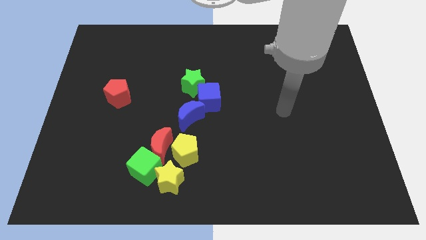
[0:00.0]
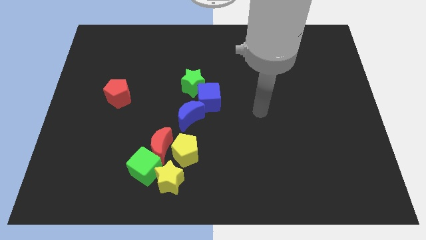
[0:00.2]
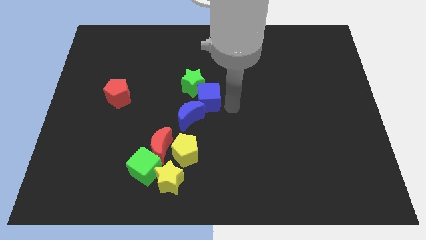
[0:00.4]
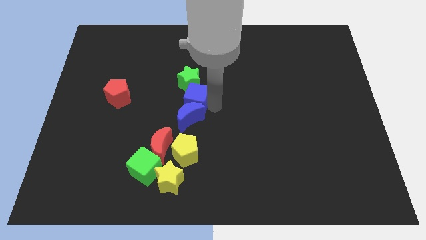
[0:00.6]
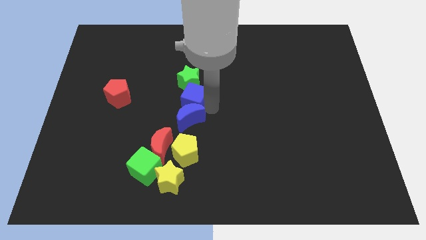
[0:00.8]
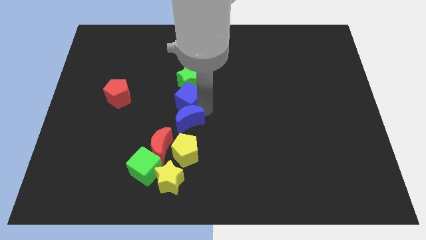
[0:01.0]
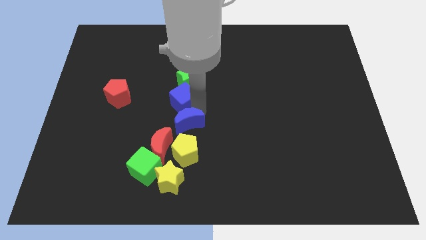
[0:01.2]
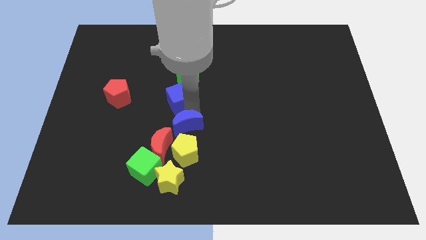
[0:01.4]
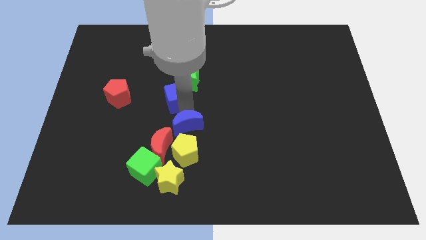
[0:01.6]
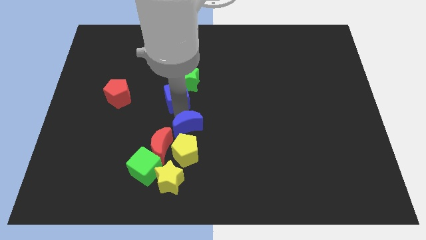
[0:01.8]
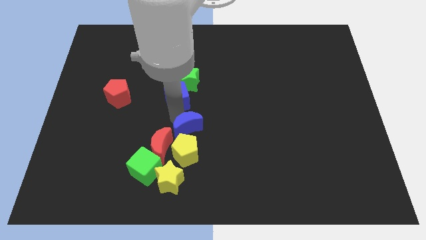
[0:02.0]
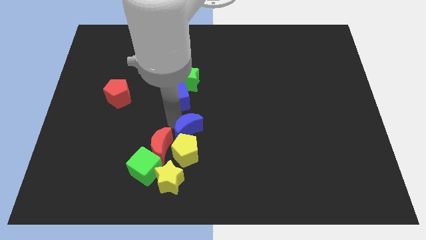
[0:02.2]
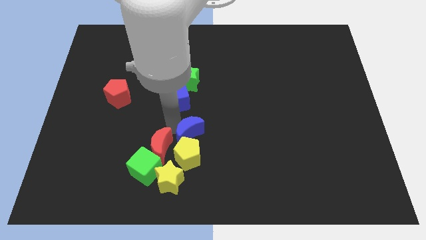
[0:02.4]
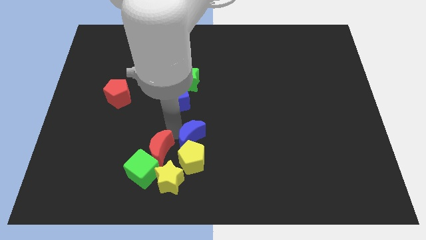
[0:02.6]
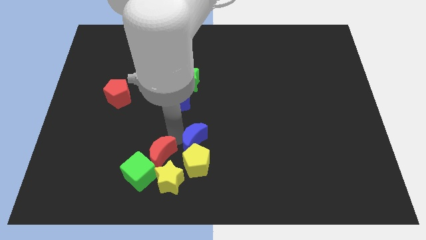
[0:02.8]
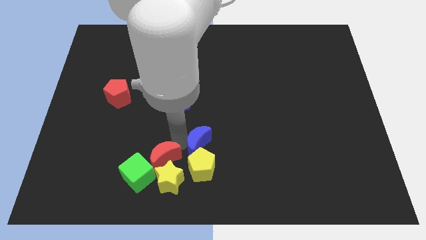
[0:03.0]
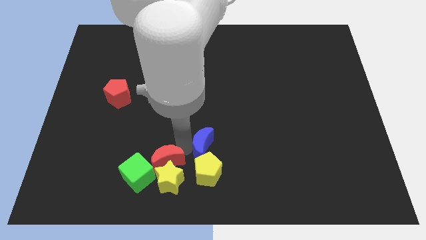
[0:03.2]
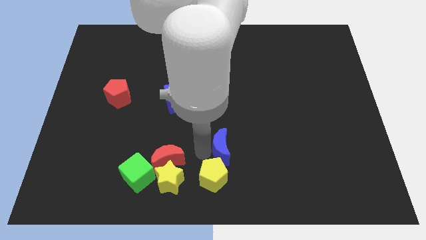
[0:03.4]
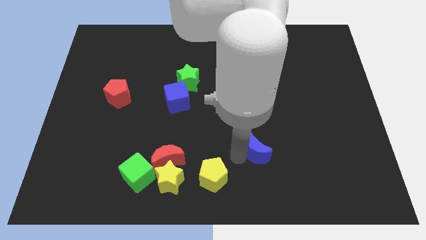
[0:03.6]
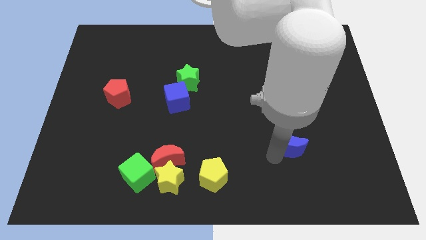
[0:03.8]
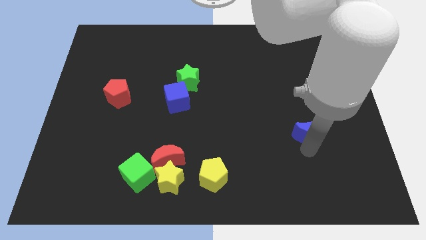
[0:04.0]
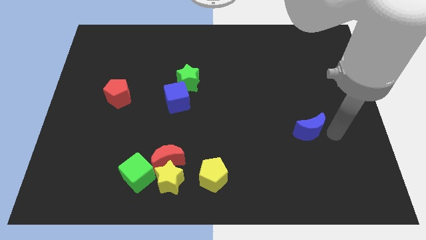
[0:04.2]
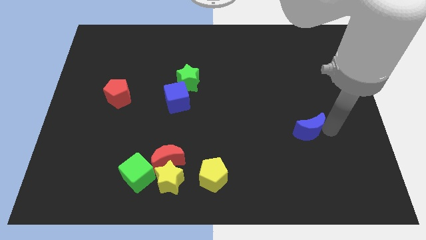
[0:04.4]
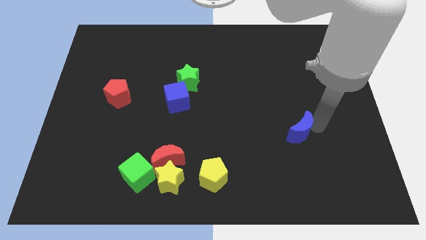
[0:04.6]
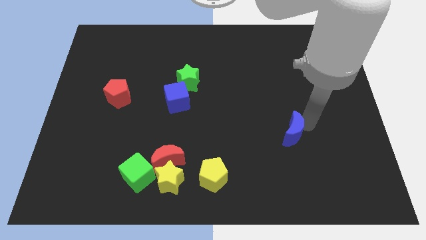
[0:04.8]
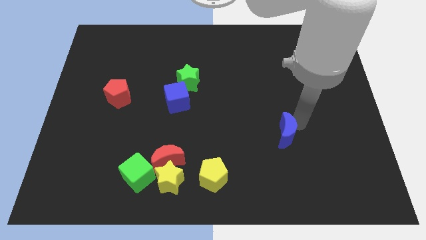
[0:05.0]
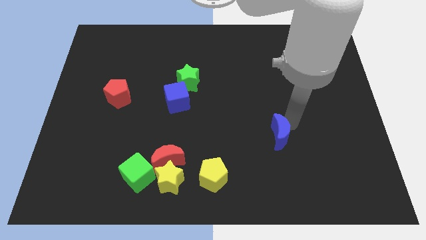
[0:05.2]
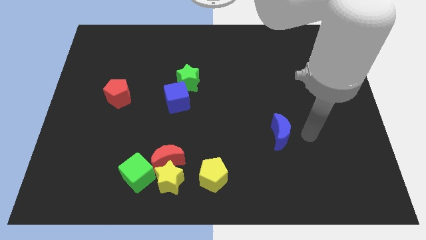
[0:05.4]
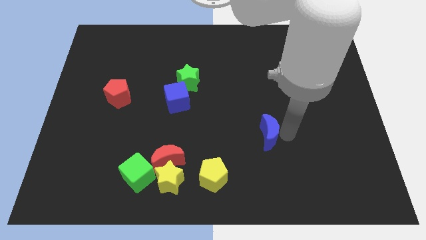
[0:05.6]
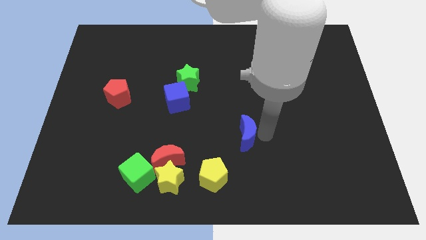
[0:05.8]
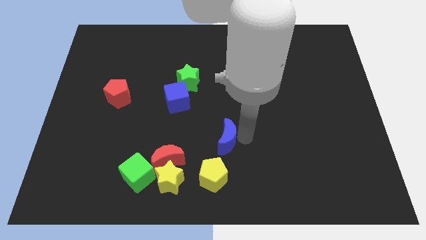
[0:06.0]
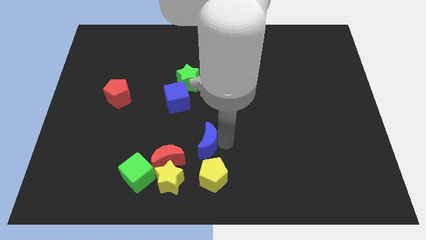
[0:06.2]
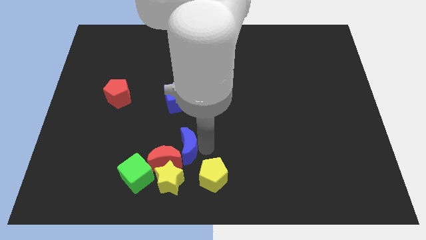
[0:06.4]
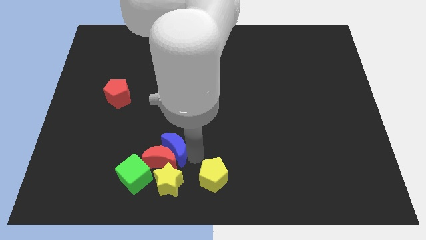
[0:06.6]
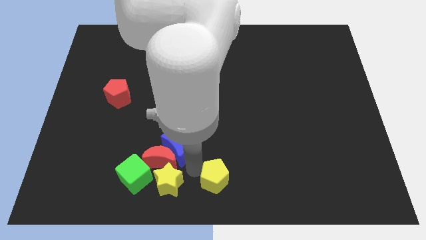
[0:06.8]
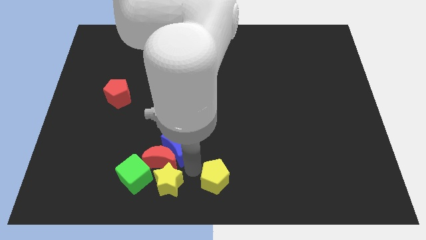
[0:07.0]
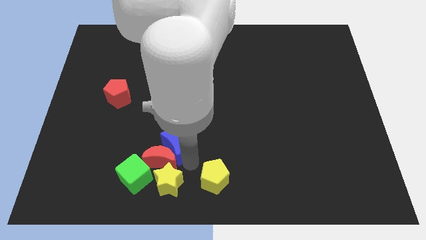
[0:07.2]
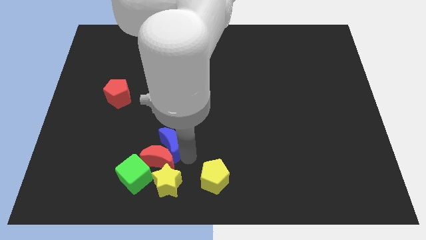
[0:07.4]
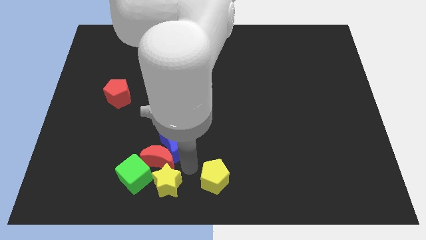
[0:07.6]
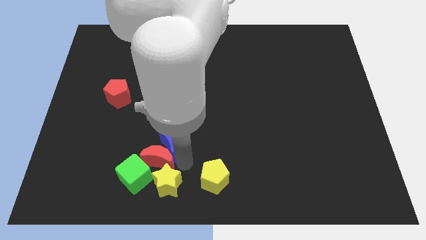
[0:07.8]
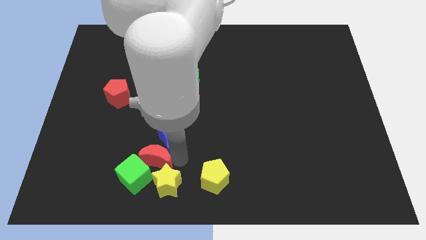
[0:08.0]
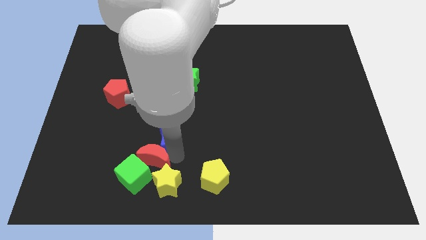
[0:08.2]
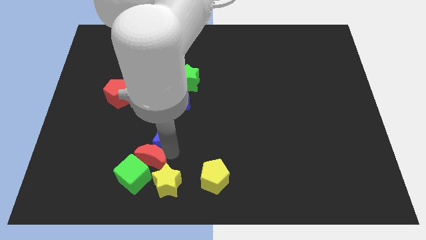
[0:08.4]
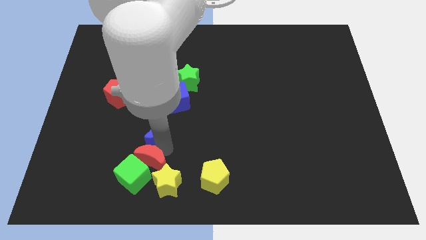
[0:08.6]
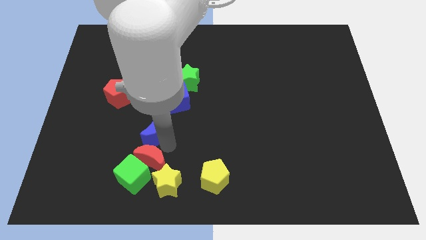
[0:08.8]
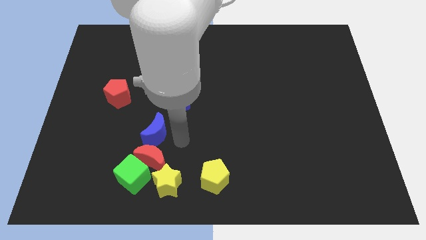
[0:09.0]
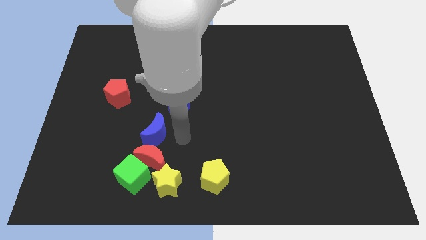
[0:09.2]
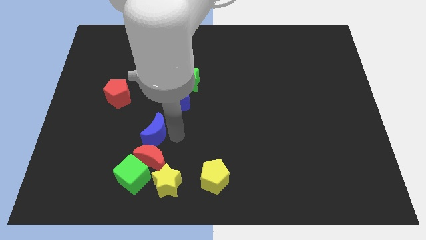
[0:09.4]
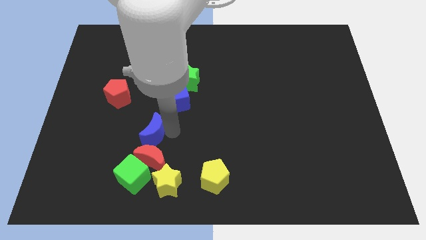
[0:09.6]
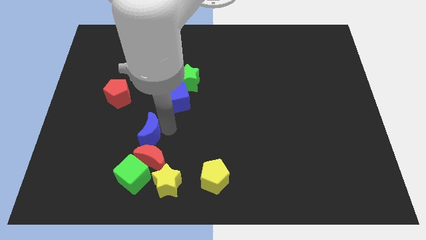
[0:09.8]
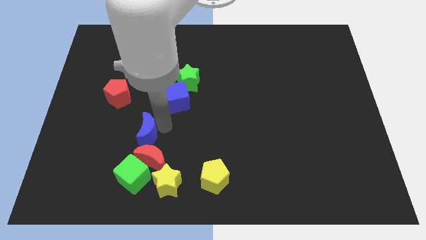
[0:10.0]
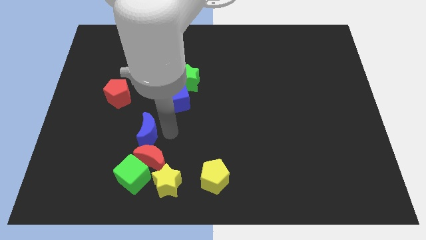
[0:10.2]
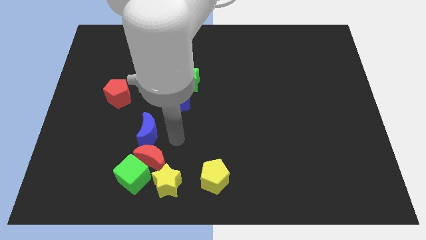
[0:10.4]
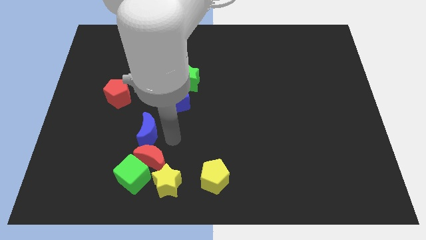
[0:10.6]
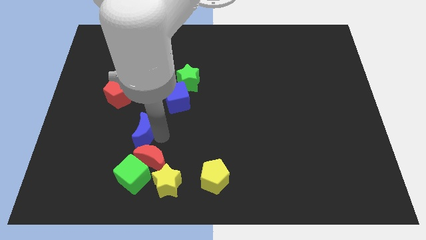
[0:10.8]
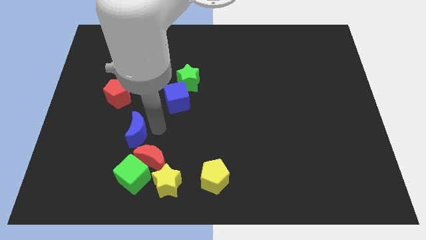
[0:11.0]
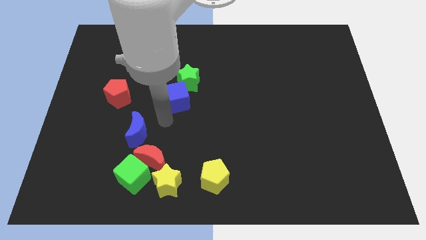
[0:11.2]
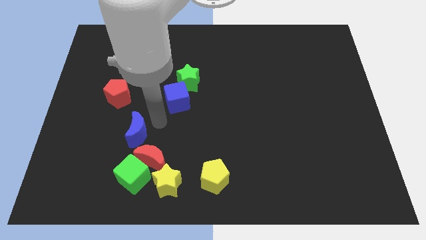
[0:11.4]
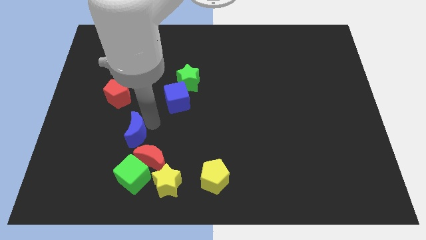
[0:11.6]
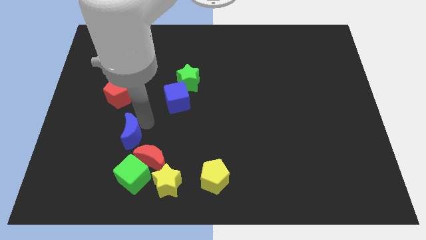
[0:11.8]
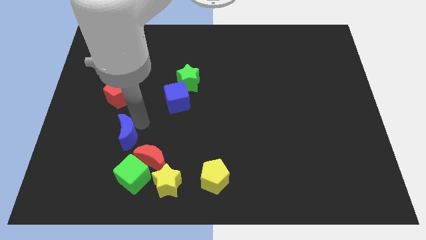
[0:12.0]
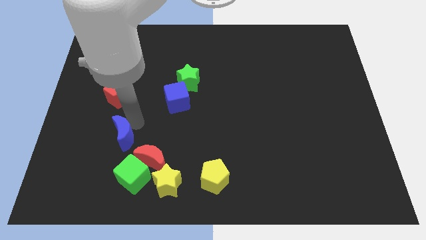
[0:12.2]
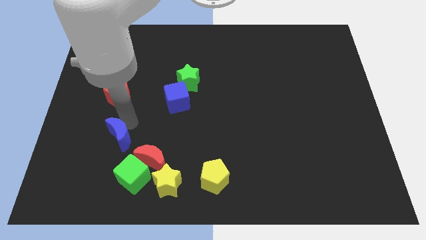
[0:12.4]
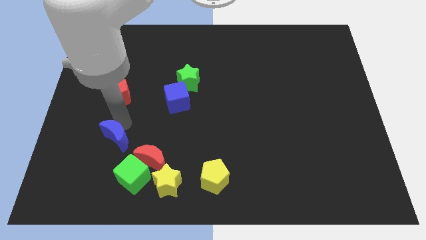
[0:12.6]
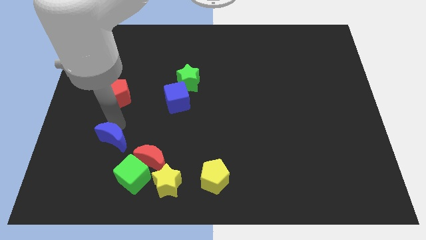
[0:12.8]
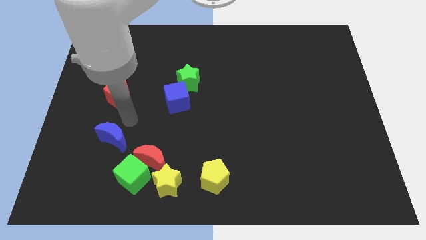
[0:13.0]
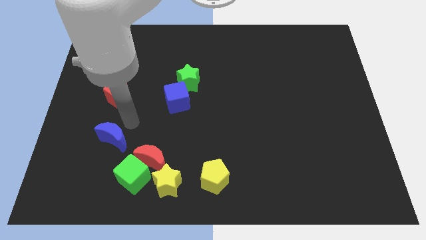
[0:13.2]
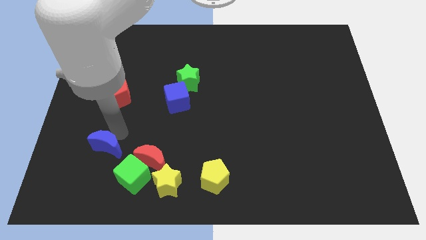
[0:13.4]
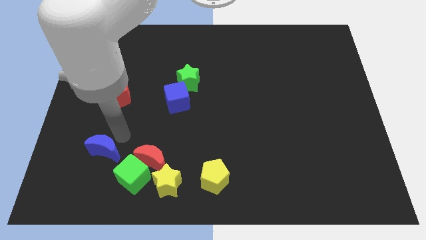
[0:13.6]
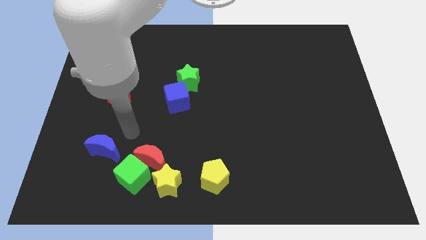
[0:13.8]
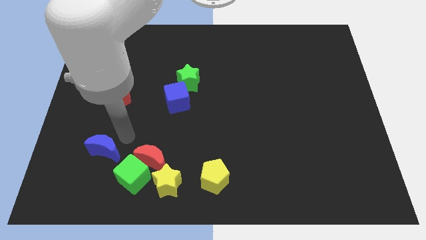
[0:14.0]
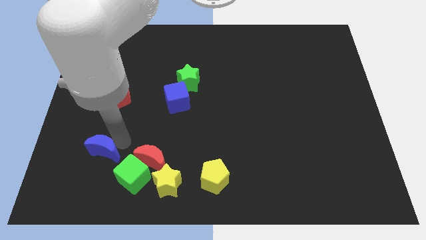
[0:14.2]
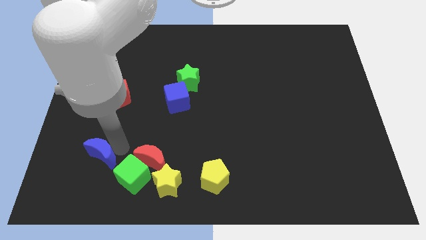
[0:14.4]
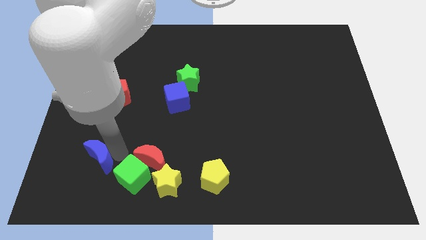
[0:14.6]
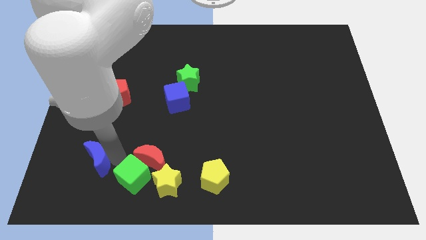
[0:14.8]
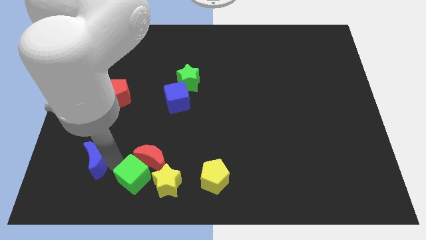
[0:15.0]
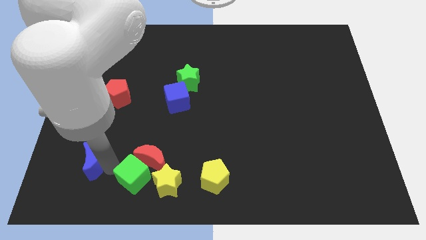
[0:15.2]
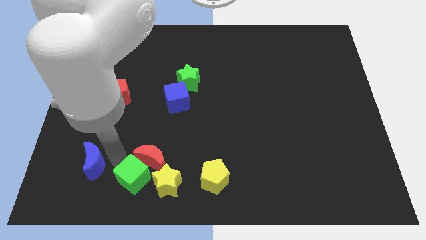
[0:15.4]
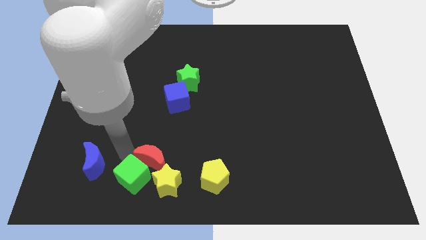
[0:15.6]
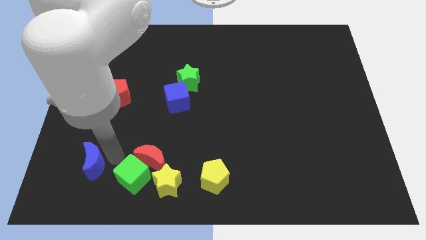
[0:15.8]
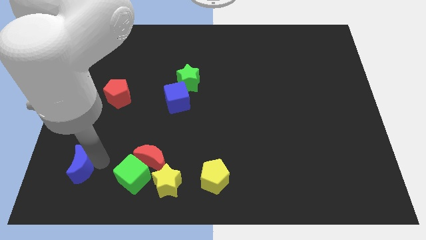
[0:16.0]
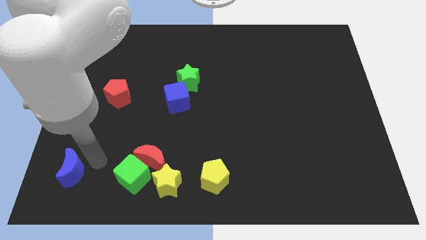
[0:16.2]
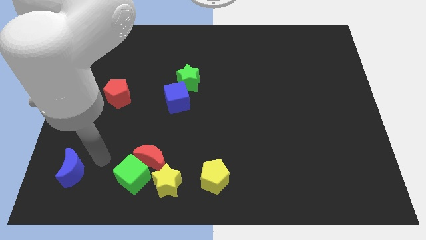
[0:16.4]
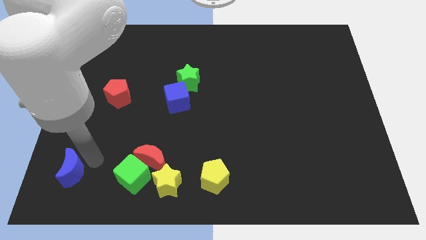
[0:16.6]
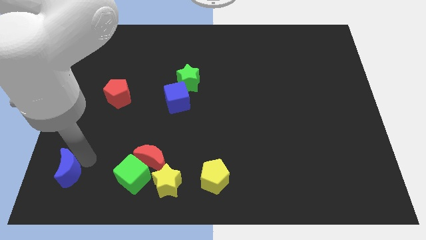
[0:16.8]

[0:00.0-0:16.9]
put the blue moon to the lower left corner
